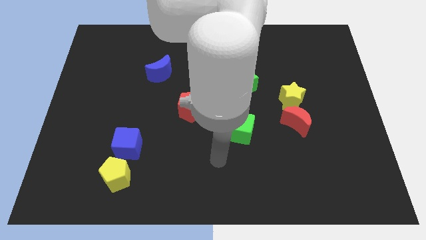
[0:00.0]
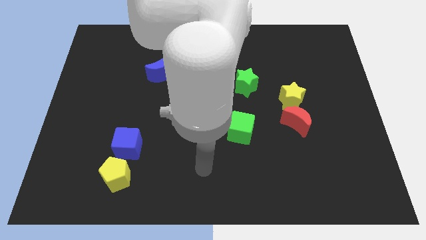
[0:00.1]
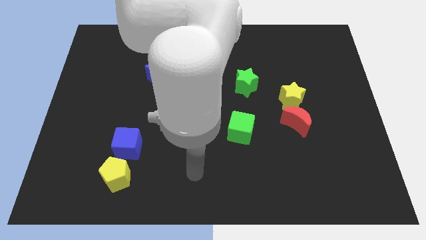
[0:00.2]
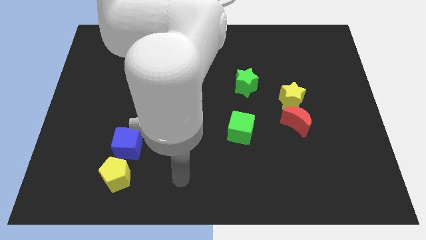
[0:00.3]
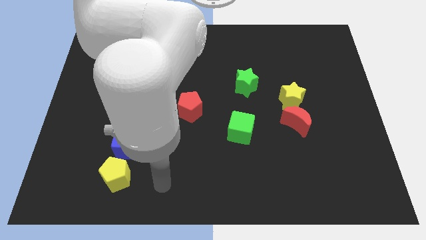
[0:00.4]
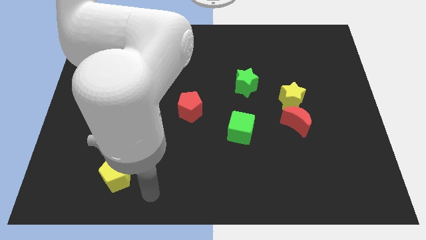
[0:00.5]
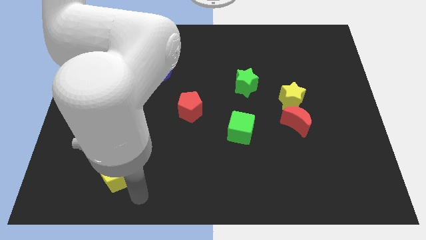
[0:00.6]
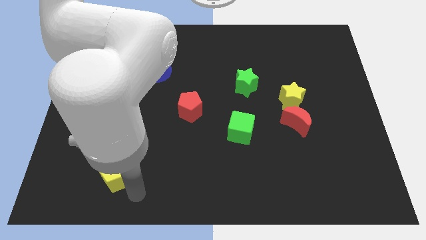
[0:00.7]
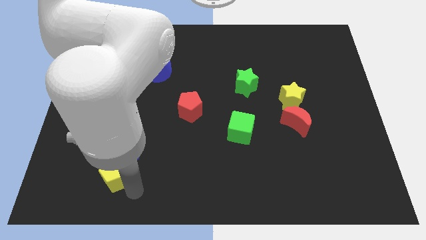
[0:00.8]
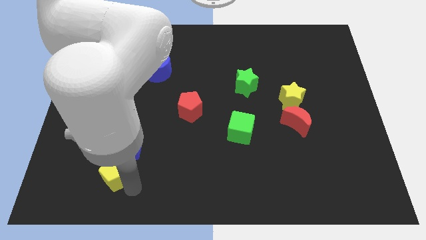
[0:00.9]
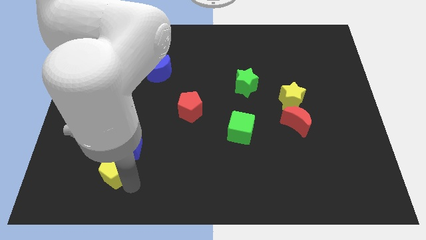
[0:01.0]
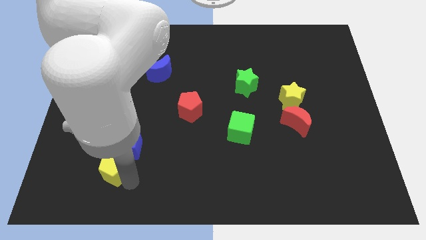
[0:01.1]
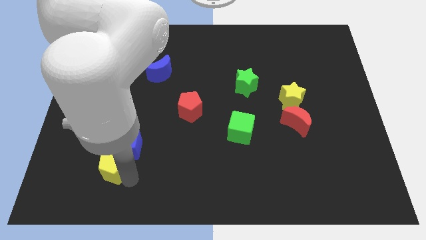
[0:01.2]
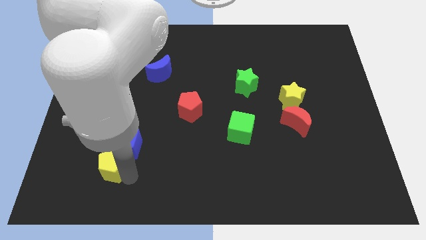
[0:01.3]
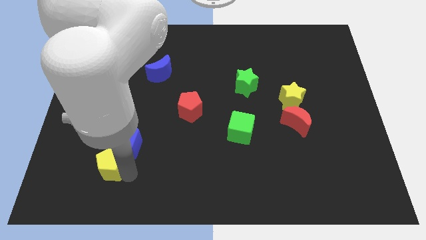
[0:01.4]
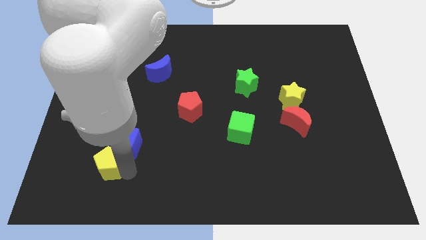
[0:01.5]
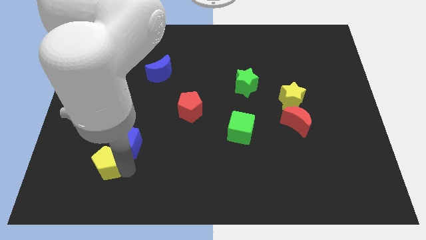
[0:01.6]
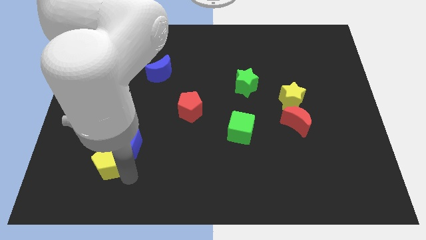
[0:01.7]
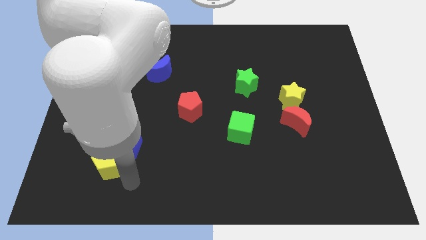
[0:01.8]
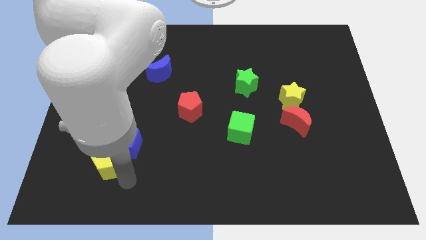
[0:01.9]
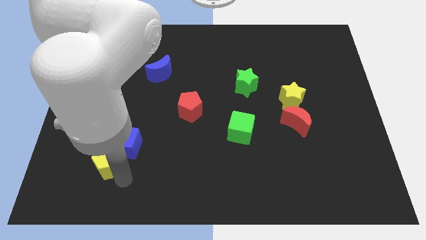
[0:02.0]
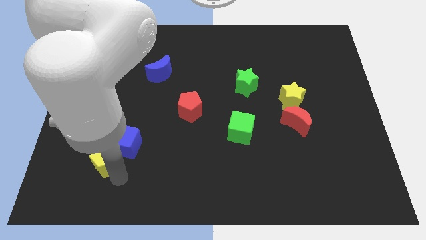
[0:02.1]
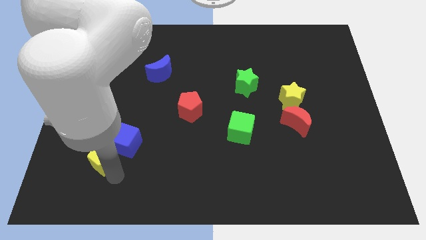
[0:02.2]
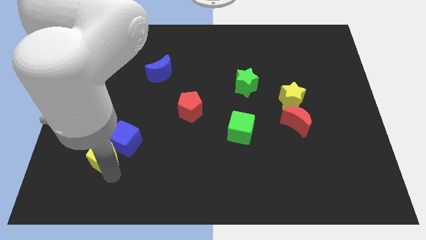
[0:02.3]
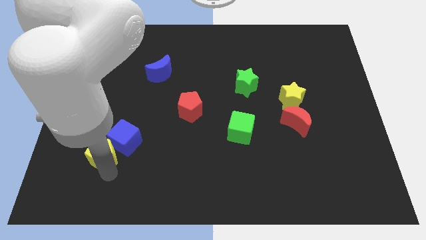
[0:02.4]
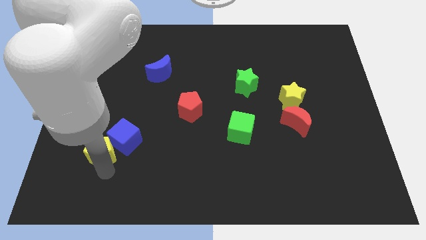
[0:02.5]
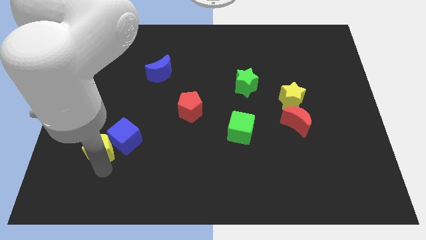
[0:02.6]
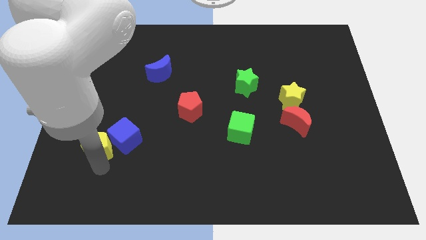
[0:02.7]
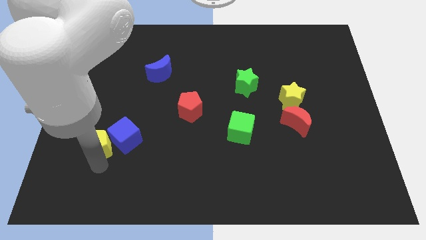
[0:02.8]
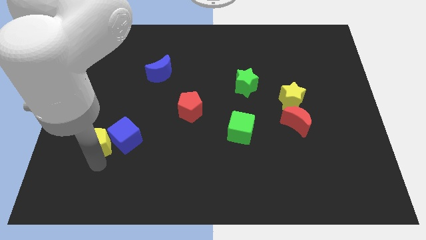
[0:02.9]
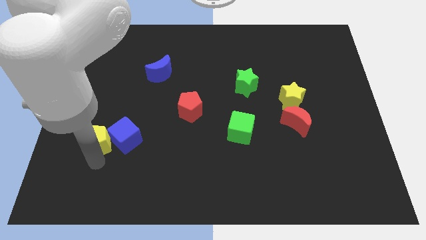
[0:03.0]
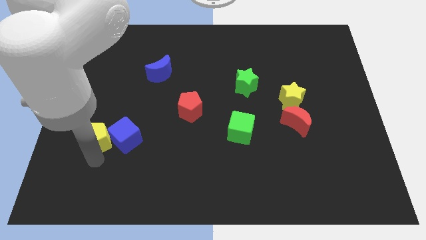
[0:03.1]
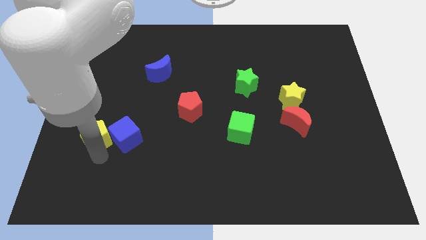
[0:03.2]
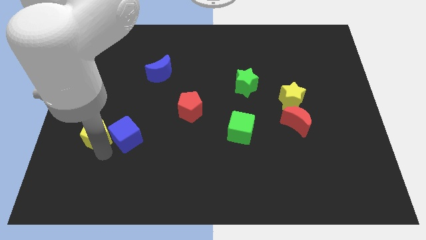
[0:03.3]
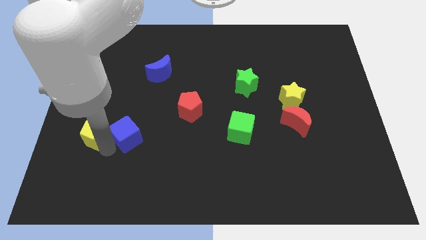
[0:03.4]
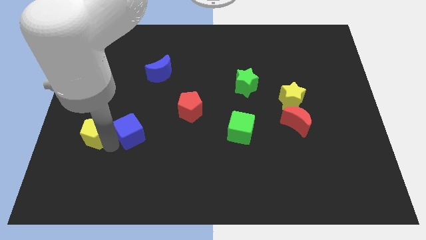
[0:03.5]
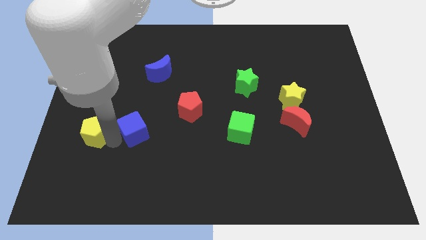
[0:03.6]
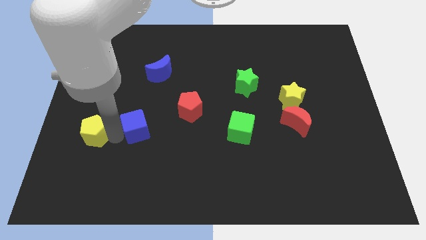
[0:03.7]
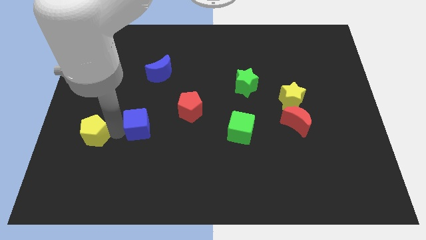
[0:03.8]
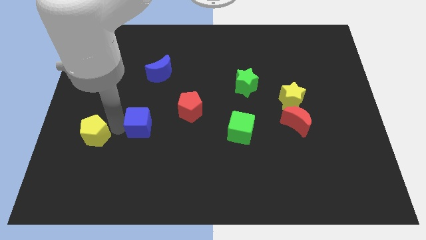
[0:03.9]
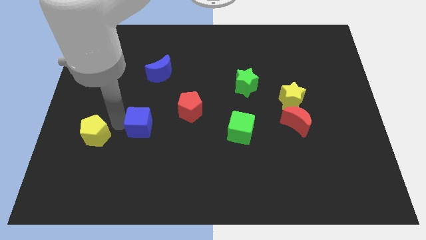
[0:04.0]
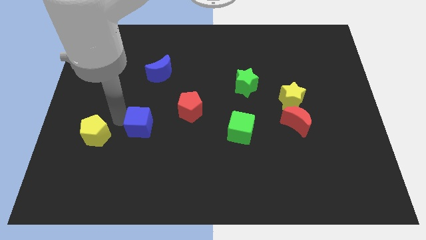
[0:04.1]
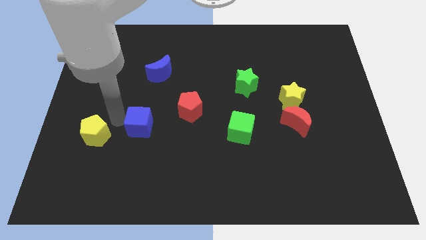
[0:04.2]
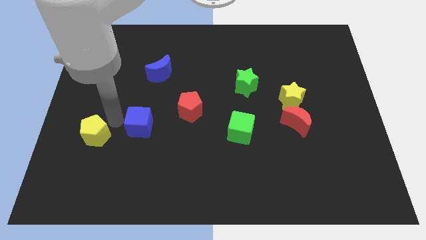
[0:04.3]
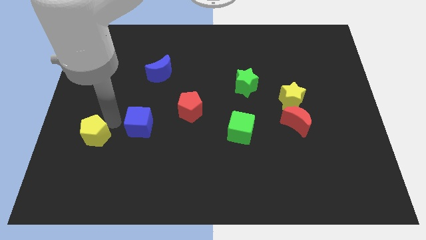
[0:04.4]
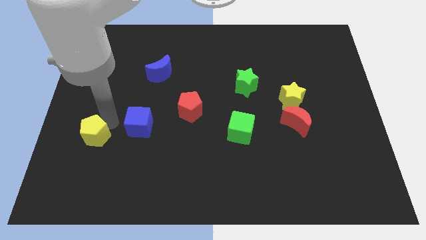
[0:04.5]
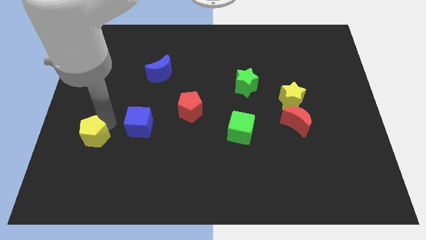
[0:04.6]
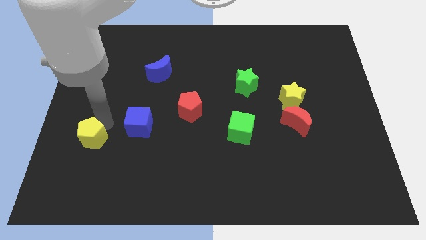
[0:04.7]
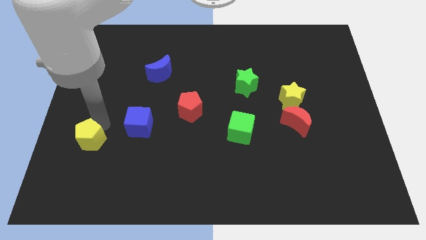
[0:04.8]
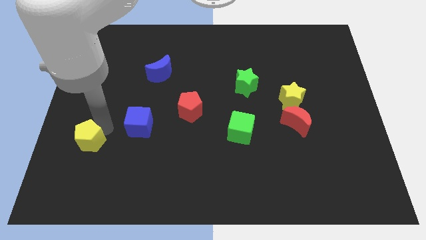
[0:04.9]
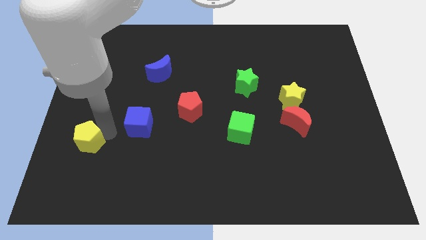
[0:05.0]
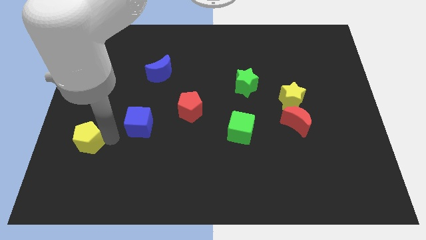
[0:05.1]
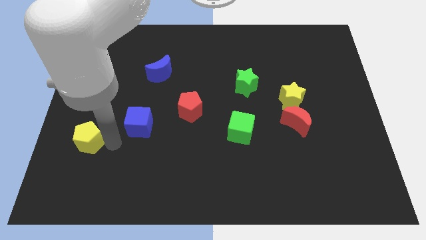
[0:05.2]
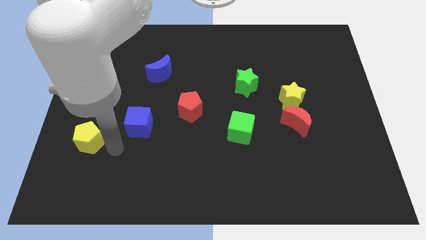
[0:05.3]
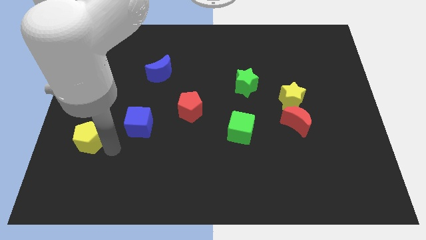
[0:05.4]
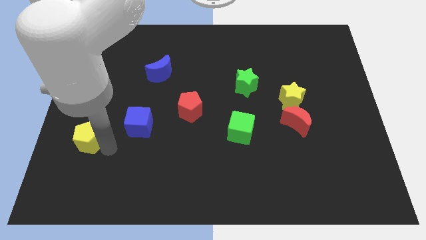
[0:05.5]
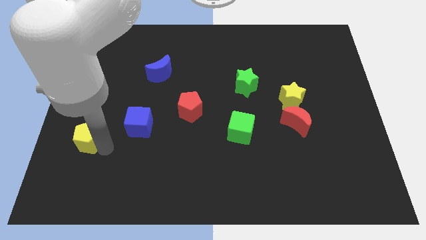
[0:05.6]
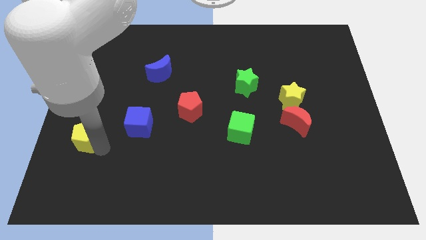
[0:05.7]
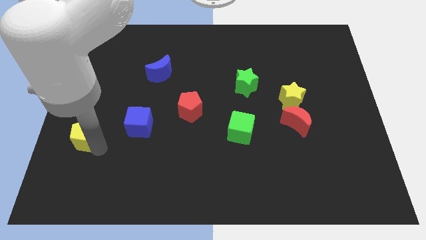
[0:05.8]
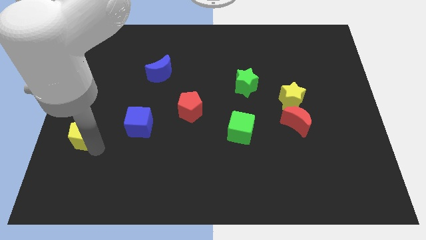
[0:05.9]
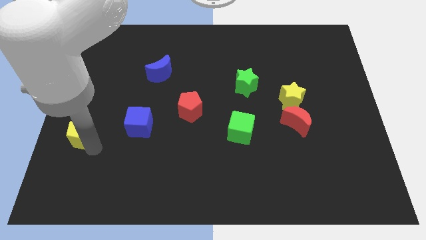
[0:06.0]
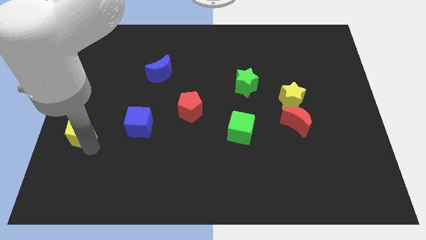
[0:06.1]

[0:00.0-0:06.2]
move the yellow pentagon to the left side of the board
